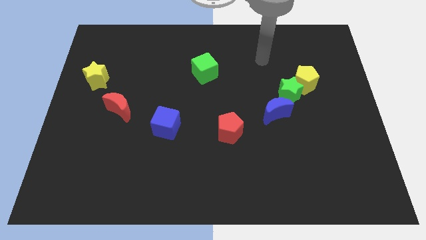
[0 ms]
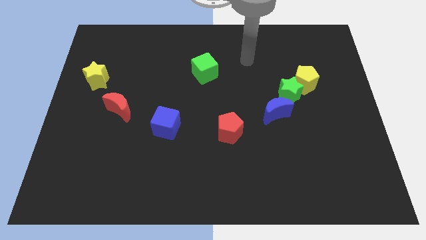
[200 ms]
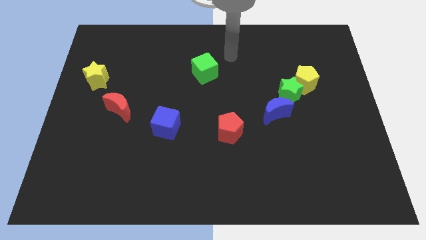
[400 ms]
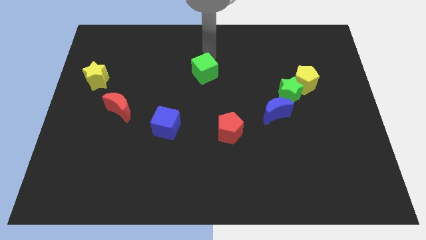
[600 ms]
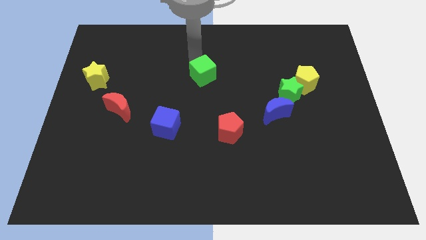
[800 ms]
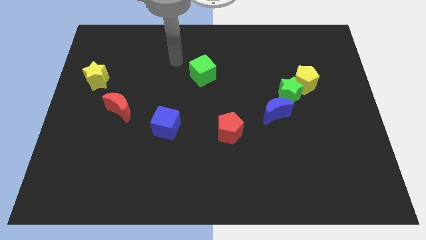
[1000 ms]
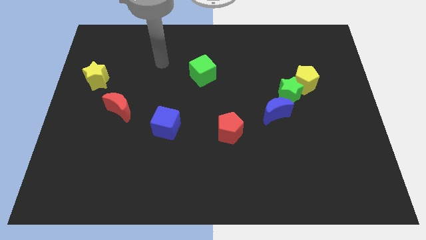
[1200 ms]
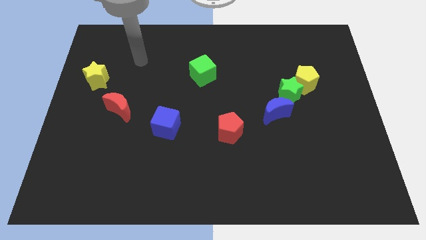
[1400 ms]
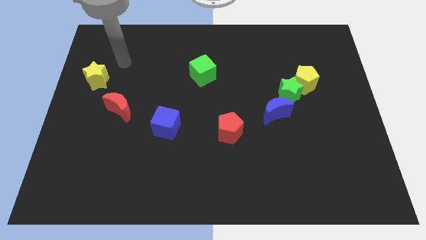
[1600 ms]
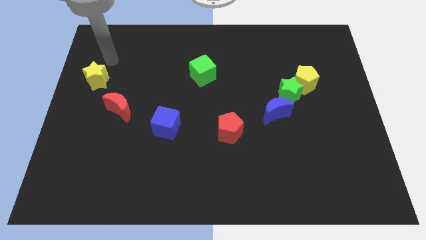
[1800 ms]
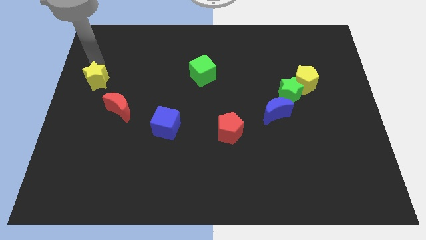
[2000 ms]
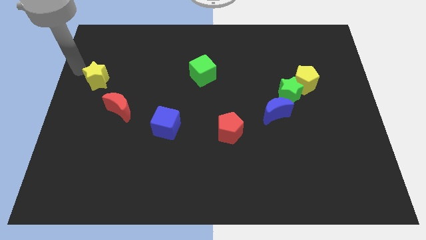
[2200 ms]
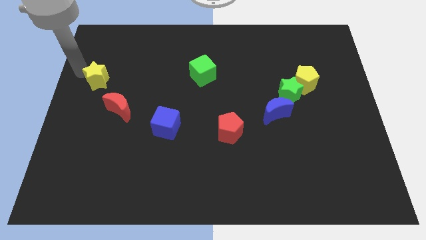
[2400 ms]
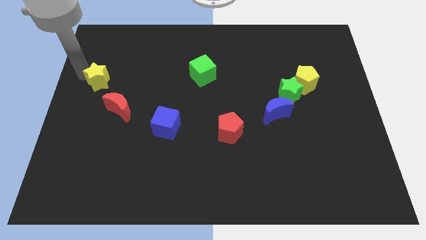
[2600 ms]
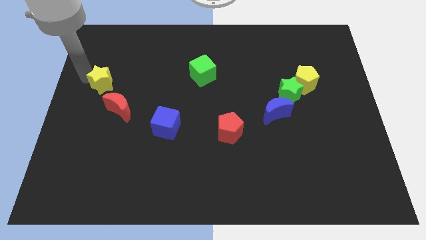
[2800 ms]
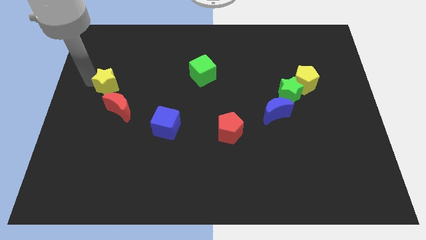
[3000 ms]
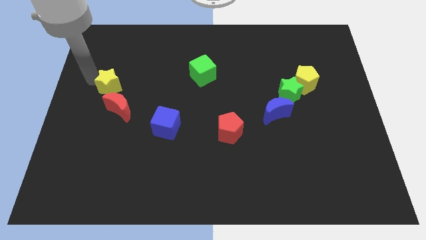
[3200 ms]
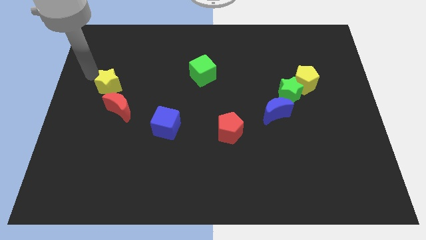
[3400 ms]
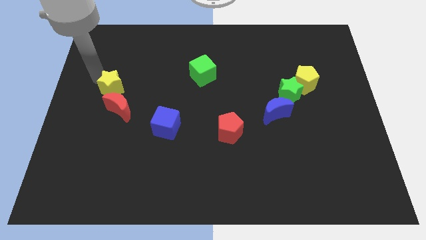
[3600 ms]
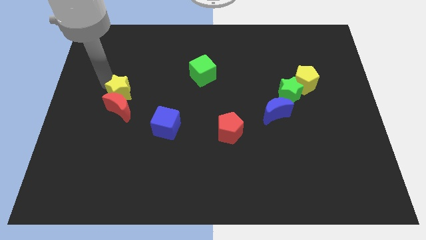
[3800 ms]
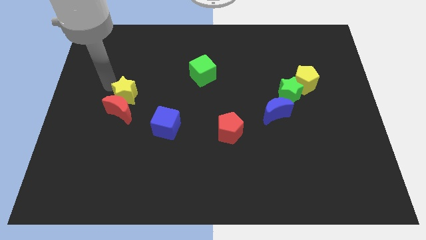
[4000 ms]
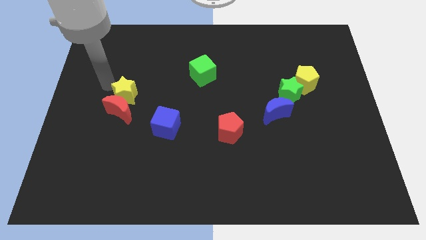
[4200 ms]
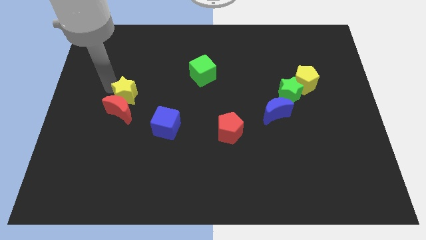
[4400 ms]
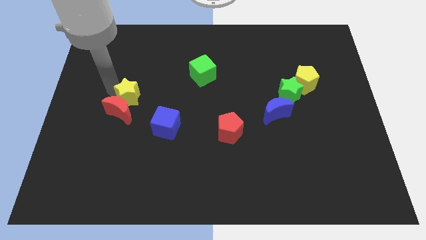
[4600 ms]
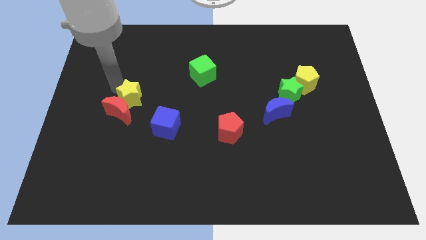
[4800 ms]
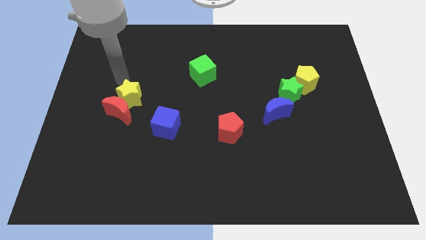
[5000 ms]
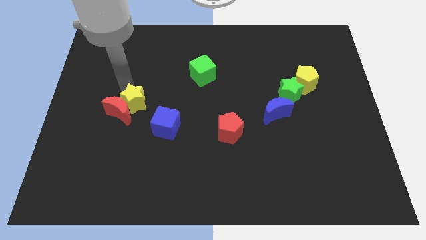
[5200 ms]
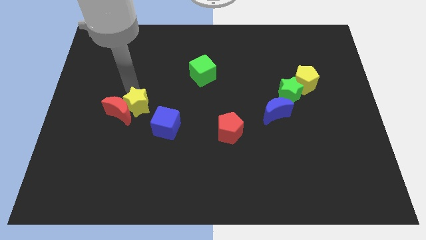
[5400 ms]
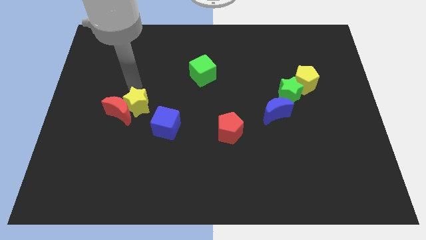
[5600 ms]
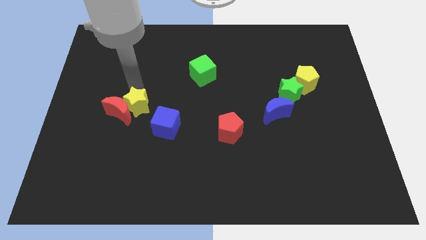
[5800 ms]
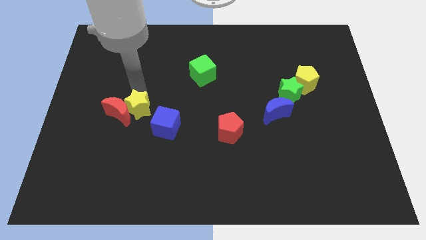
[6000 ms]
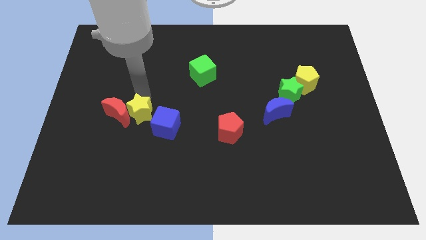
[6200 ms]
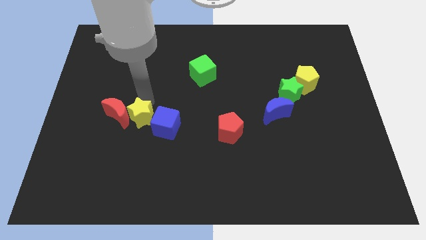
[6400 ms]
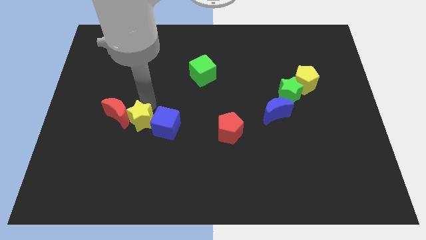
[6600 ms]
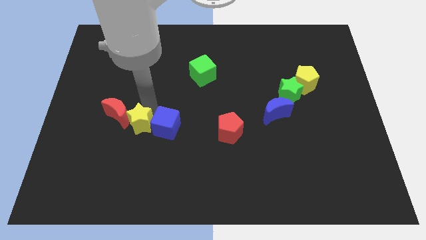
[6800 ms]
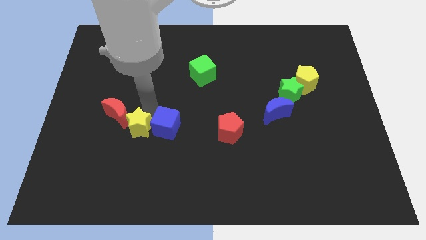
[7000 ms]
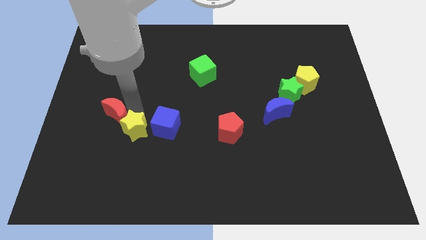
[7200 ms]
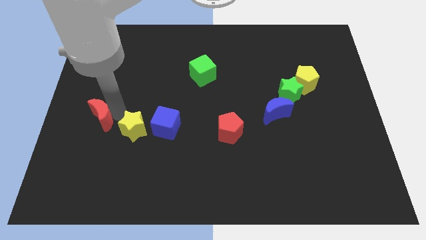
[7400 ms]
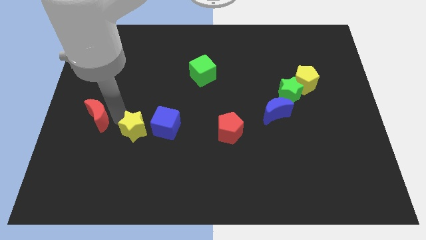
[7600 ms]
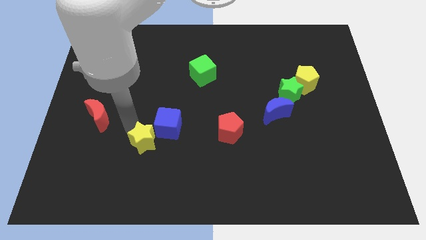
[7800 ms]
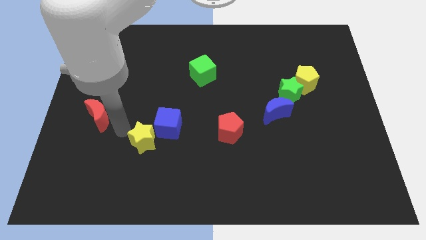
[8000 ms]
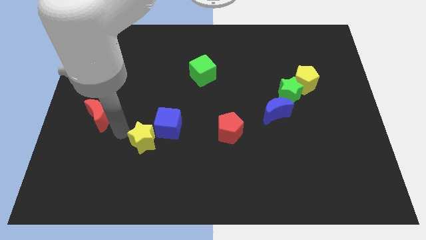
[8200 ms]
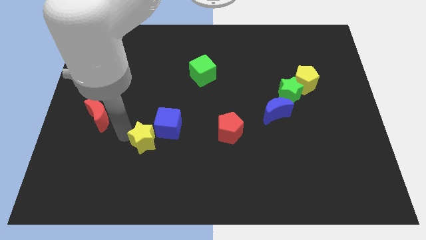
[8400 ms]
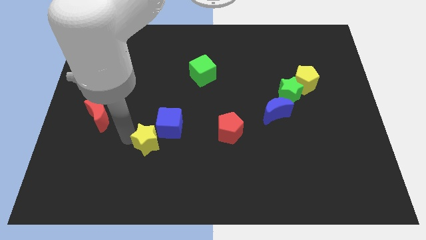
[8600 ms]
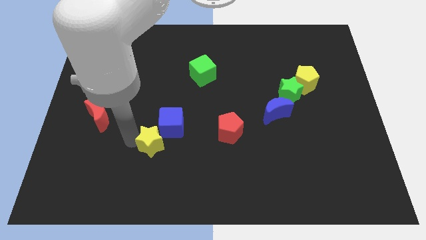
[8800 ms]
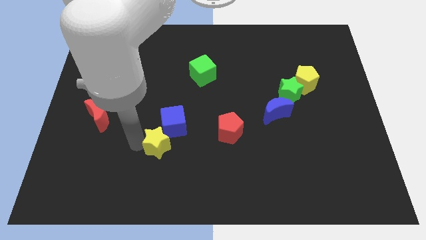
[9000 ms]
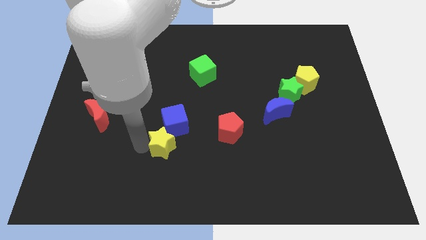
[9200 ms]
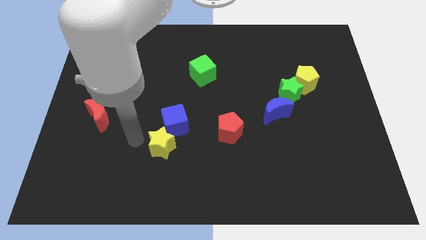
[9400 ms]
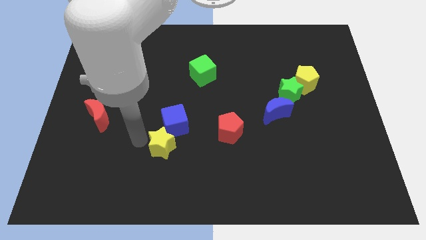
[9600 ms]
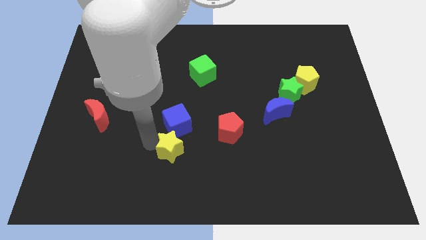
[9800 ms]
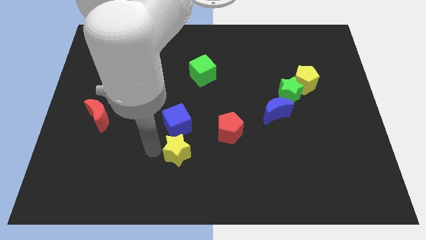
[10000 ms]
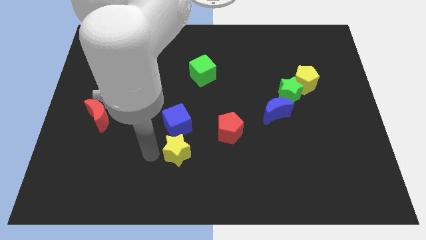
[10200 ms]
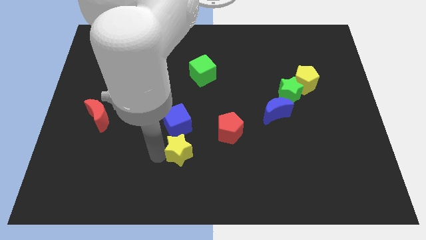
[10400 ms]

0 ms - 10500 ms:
put the yellow star to the bottom left of the red pentagon

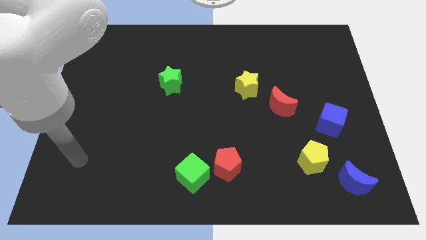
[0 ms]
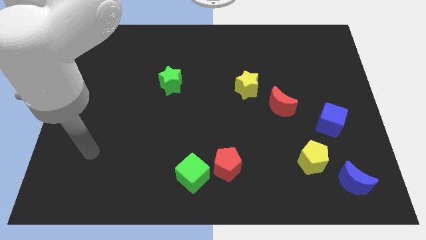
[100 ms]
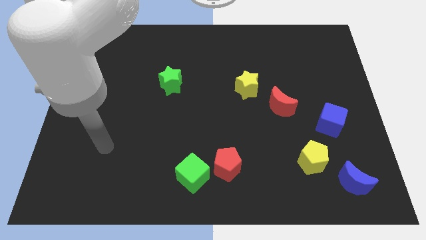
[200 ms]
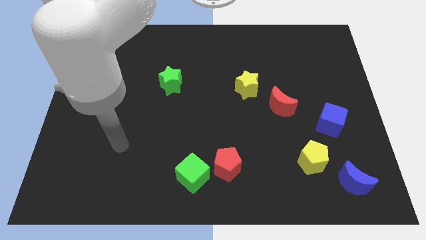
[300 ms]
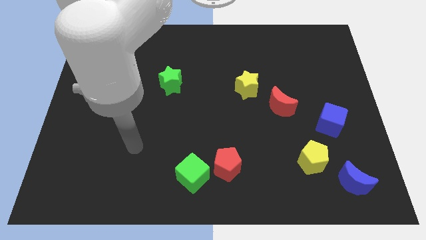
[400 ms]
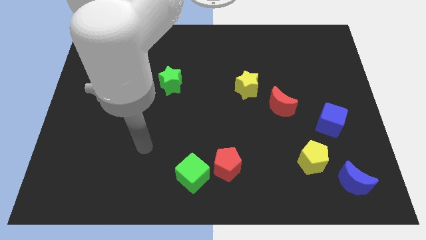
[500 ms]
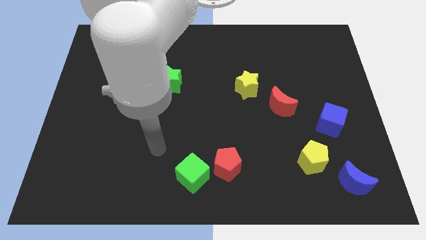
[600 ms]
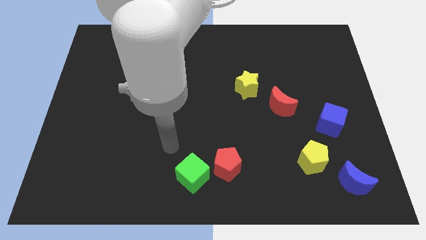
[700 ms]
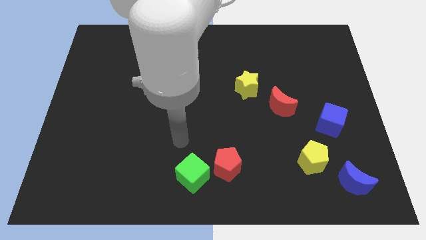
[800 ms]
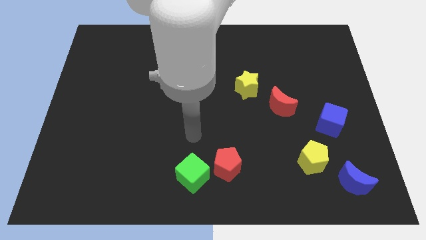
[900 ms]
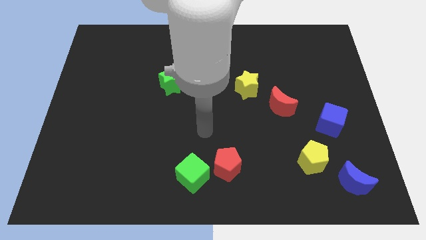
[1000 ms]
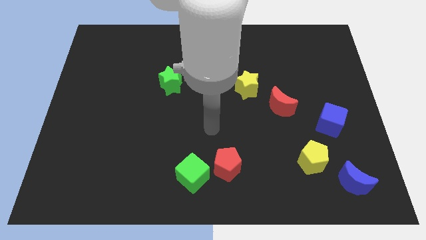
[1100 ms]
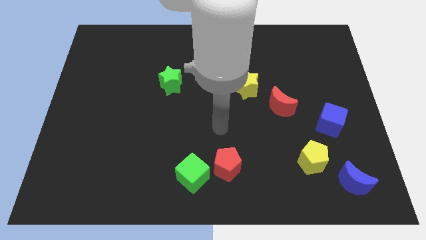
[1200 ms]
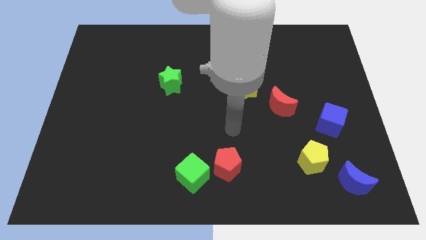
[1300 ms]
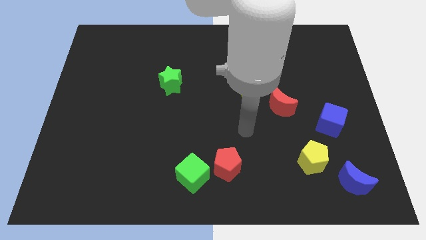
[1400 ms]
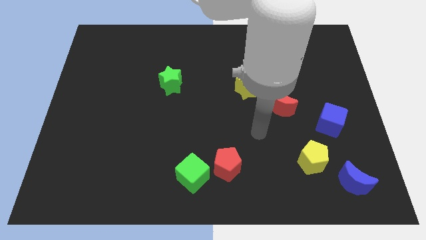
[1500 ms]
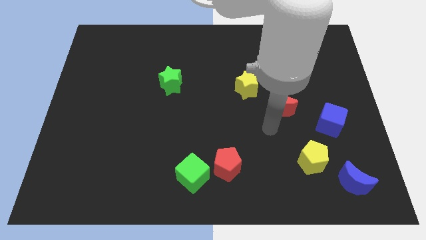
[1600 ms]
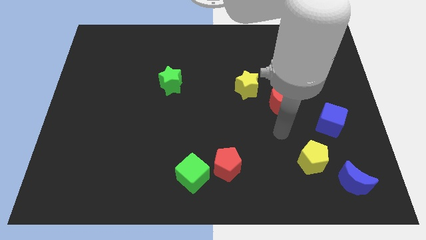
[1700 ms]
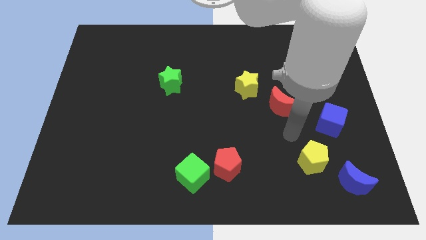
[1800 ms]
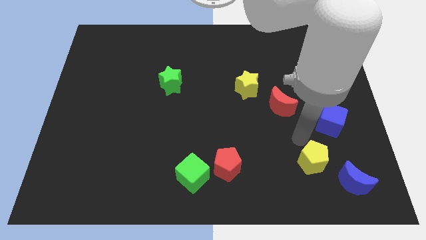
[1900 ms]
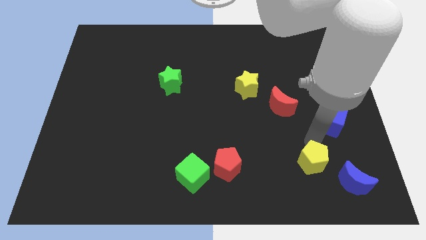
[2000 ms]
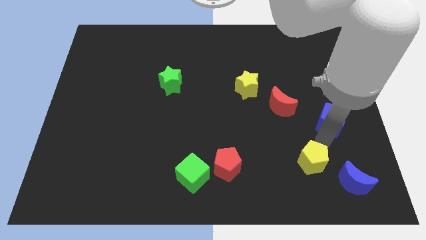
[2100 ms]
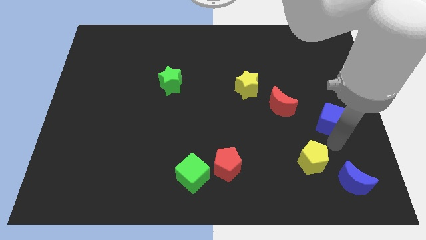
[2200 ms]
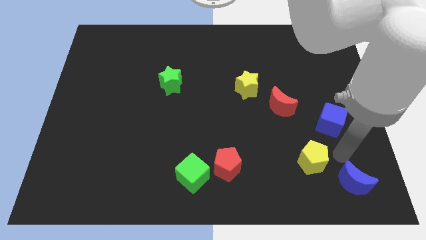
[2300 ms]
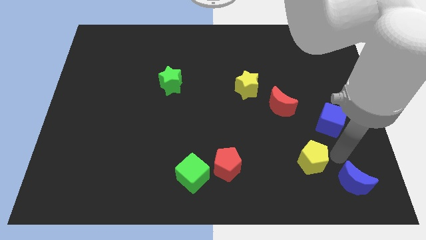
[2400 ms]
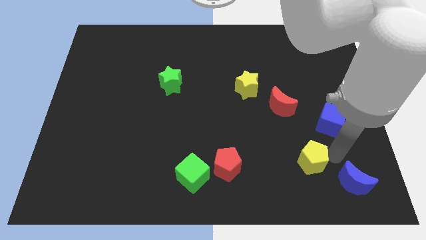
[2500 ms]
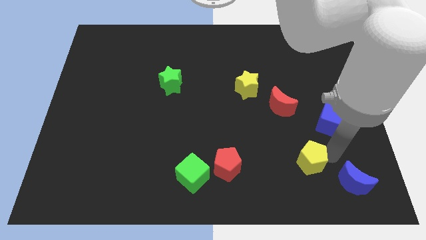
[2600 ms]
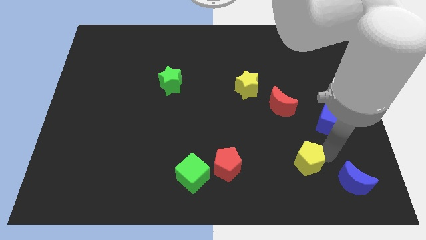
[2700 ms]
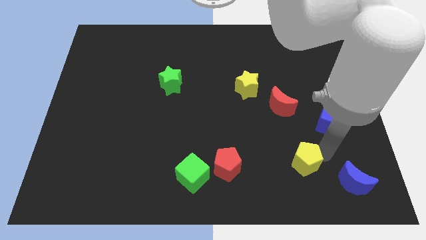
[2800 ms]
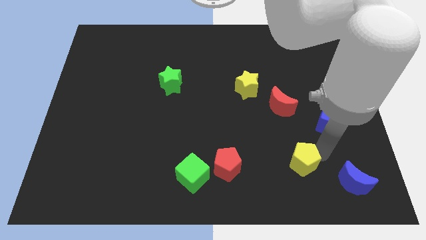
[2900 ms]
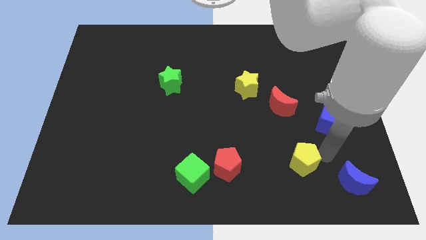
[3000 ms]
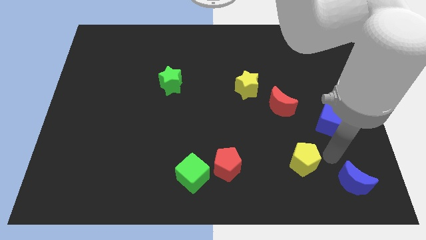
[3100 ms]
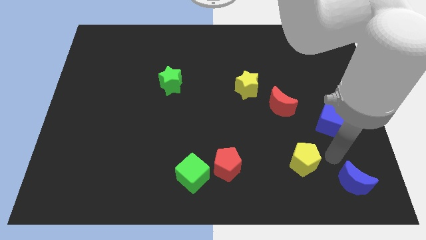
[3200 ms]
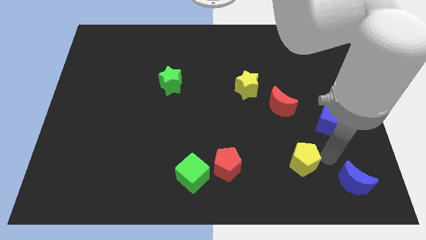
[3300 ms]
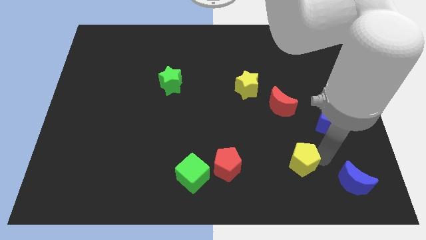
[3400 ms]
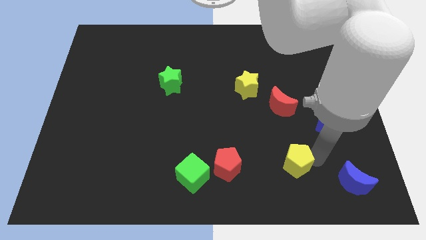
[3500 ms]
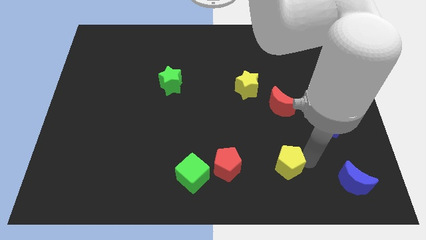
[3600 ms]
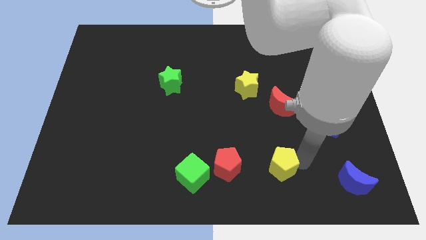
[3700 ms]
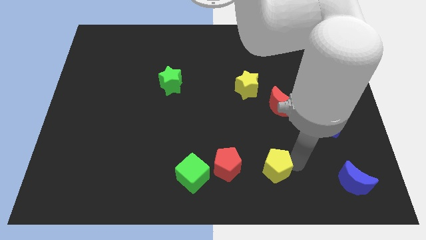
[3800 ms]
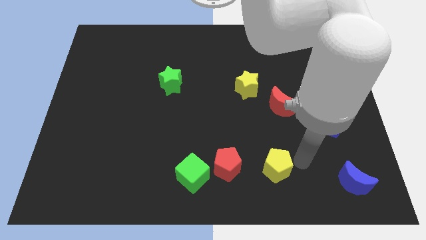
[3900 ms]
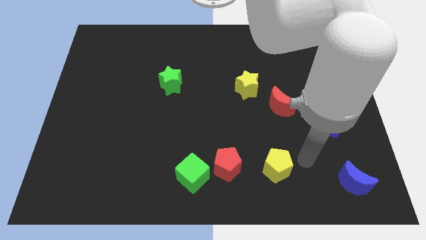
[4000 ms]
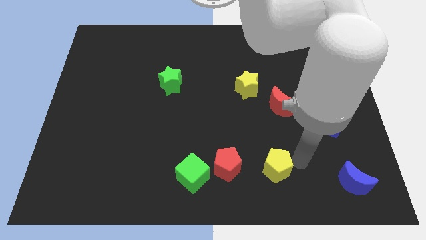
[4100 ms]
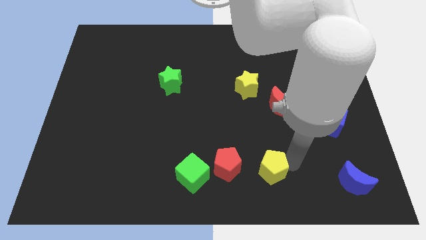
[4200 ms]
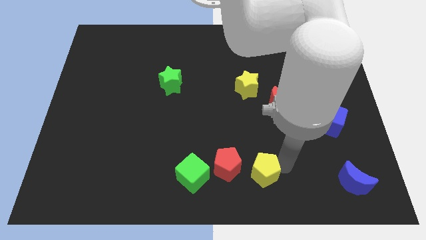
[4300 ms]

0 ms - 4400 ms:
push the yellow pentagon right of the green cube
